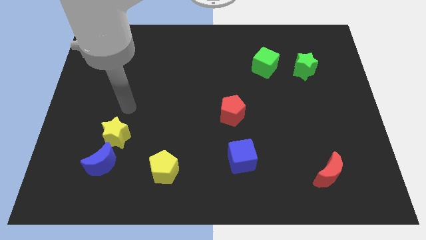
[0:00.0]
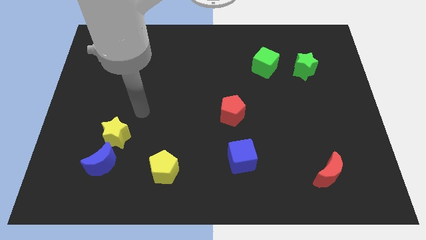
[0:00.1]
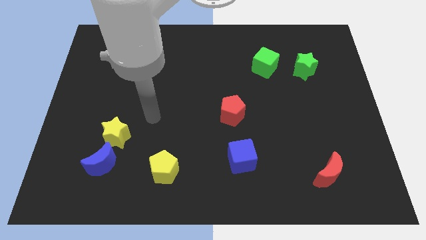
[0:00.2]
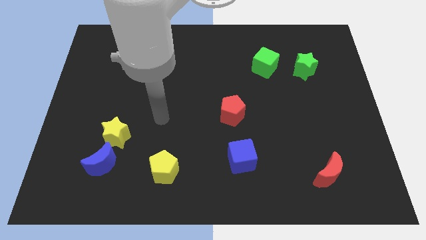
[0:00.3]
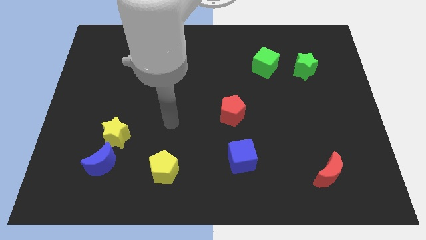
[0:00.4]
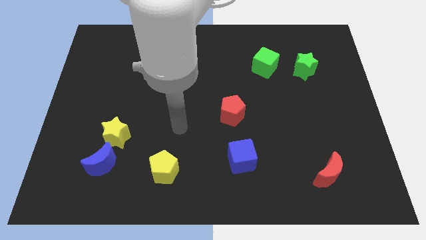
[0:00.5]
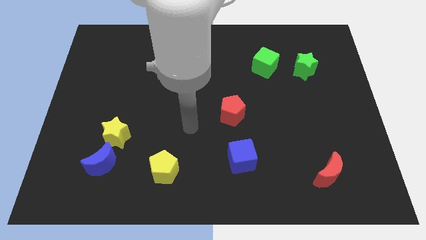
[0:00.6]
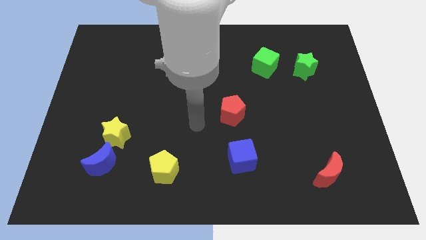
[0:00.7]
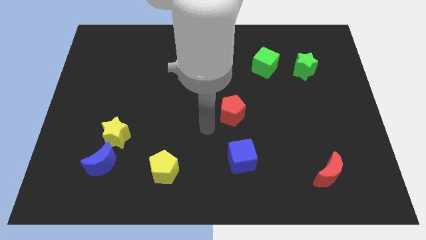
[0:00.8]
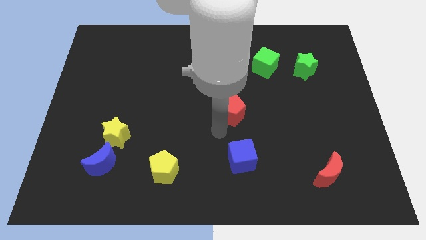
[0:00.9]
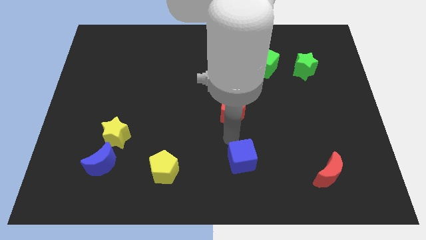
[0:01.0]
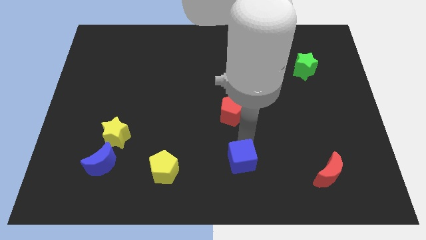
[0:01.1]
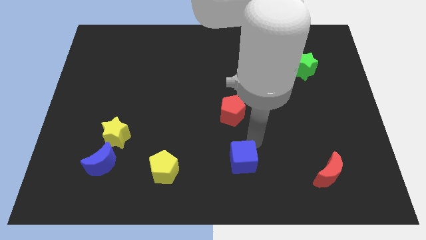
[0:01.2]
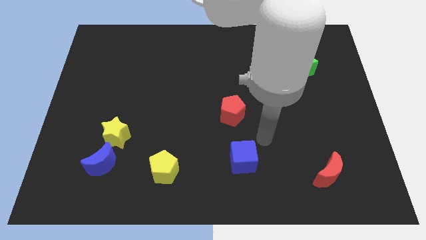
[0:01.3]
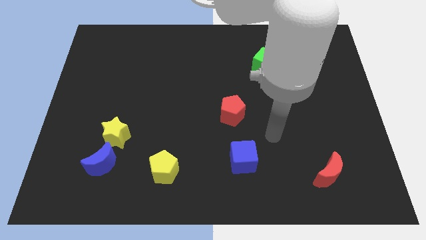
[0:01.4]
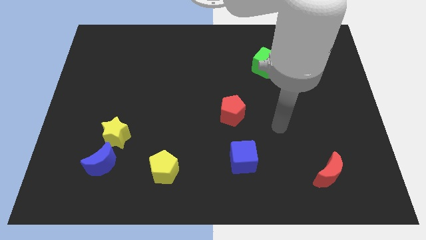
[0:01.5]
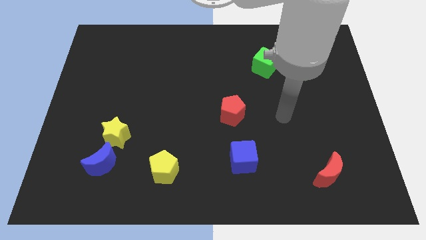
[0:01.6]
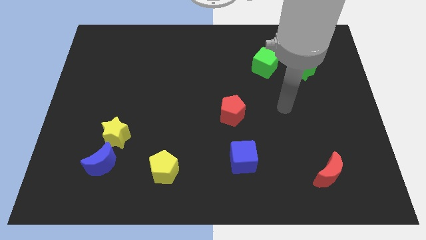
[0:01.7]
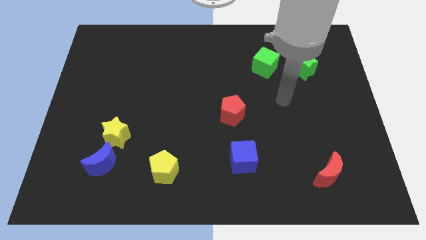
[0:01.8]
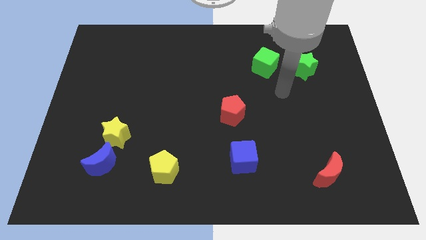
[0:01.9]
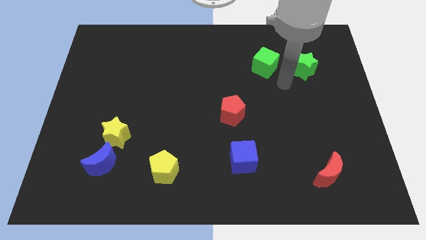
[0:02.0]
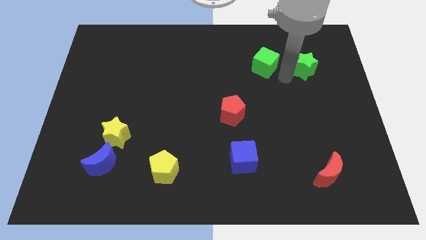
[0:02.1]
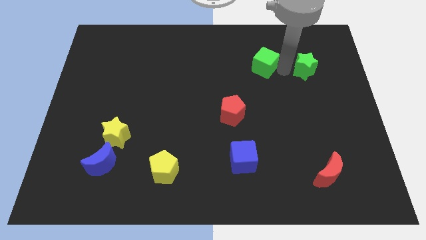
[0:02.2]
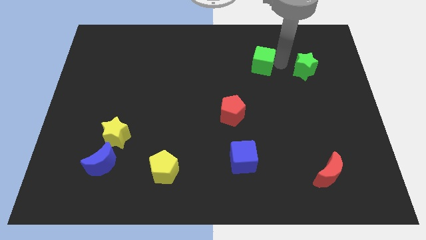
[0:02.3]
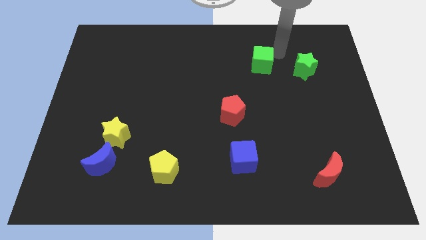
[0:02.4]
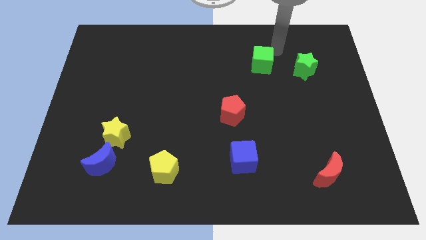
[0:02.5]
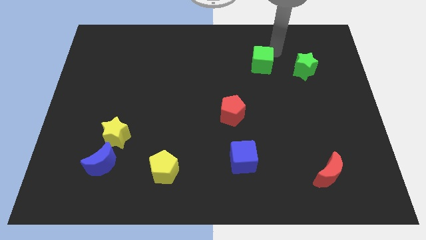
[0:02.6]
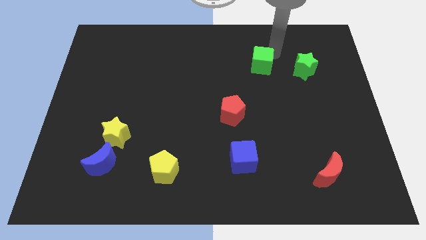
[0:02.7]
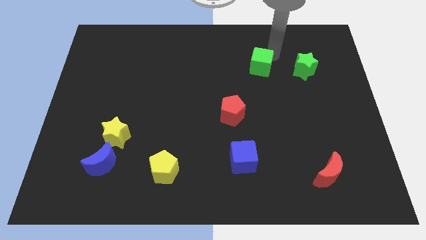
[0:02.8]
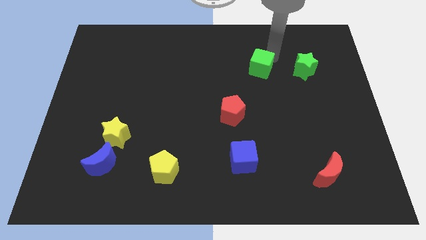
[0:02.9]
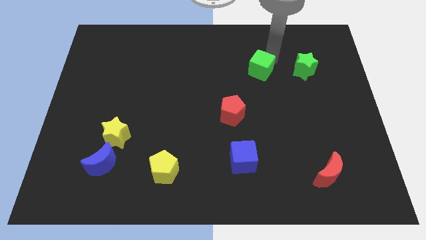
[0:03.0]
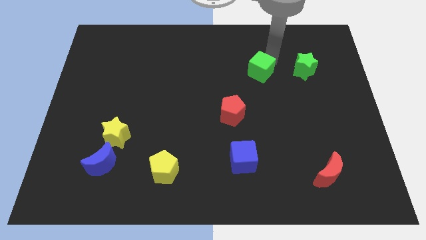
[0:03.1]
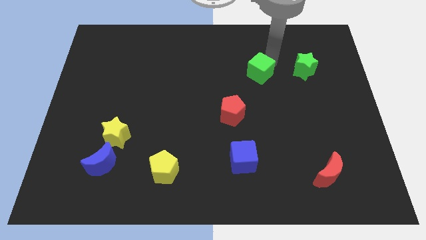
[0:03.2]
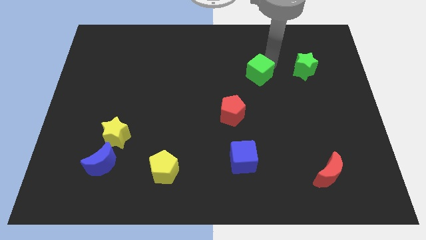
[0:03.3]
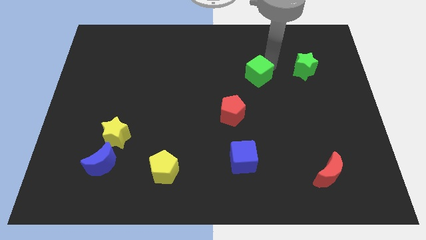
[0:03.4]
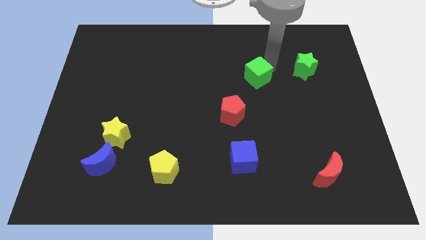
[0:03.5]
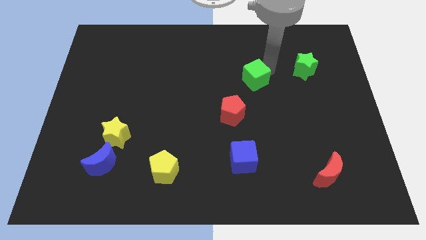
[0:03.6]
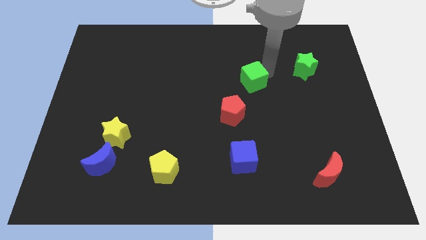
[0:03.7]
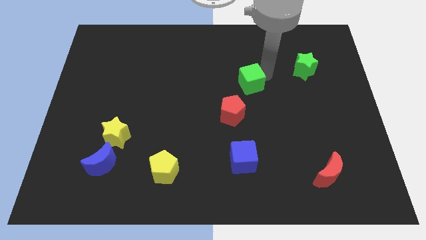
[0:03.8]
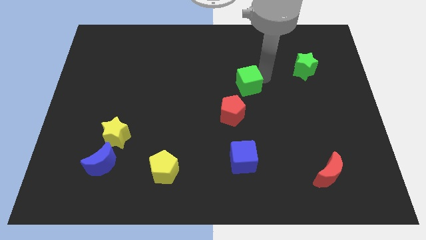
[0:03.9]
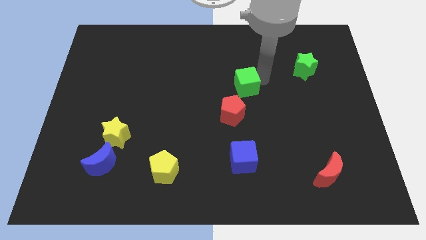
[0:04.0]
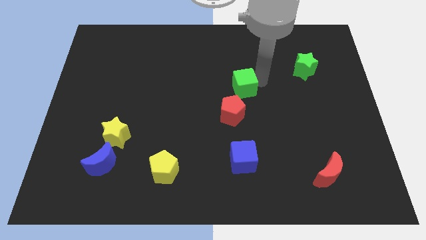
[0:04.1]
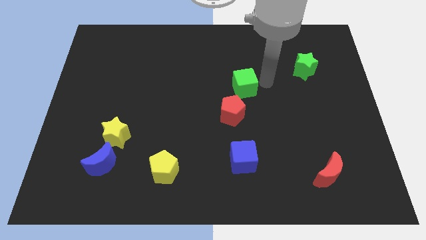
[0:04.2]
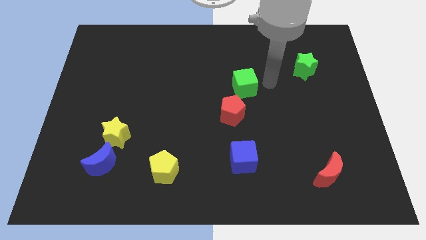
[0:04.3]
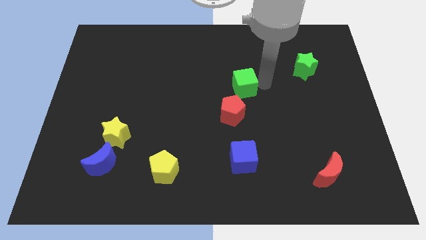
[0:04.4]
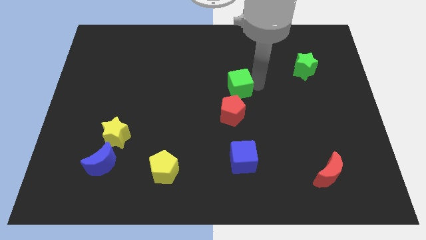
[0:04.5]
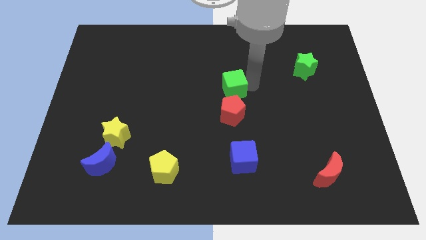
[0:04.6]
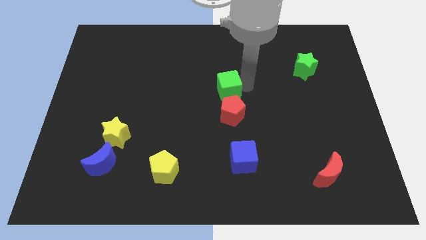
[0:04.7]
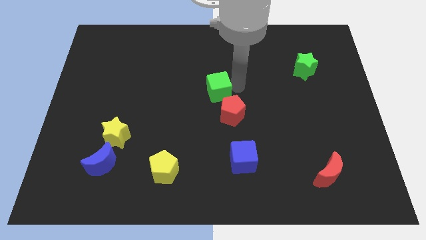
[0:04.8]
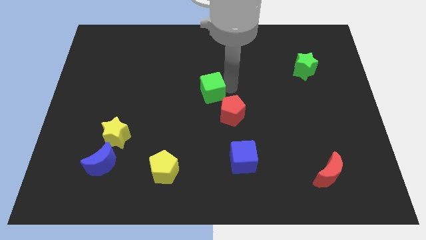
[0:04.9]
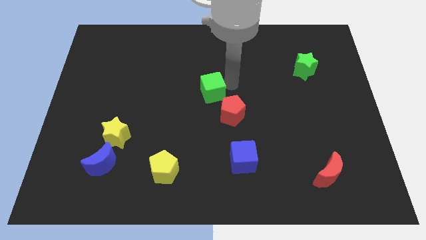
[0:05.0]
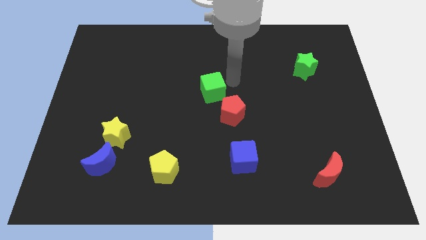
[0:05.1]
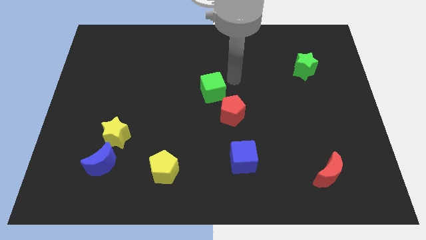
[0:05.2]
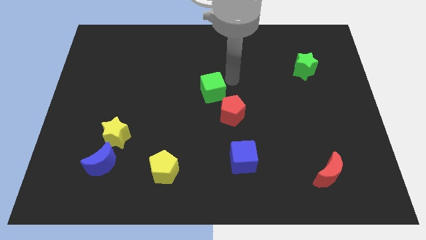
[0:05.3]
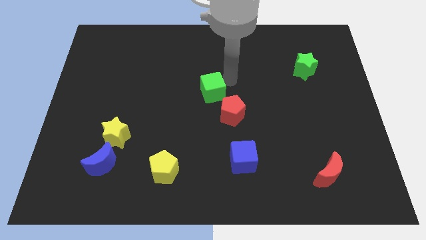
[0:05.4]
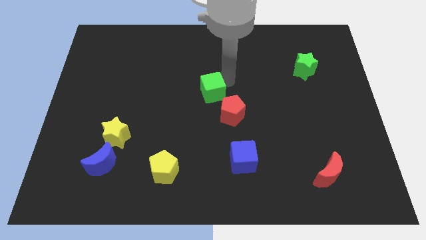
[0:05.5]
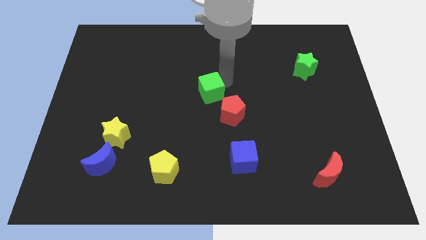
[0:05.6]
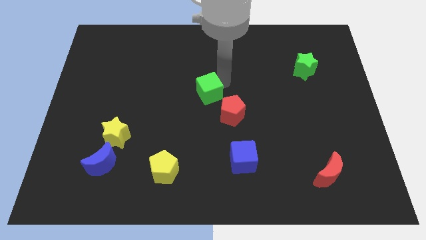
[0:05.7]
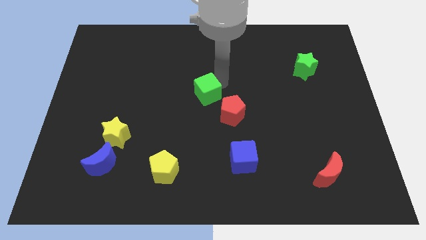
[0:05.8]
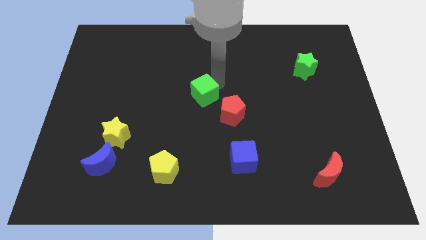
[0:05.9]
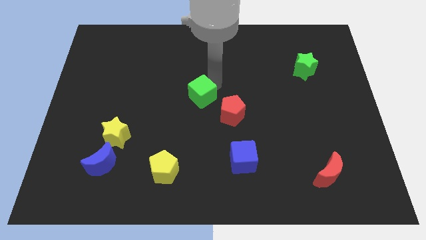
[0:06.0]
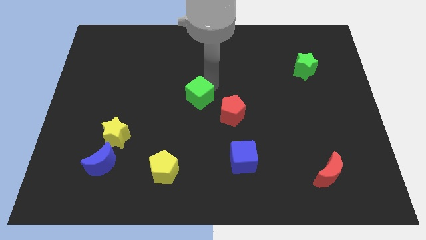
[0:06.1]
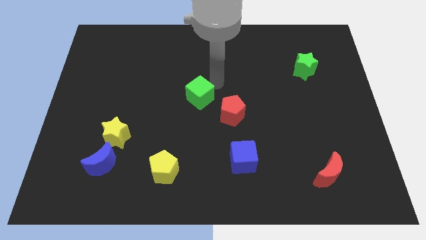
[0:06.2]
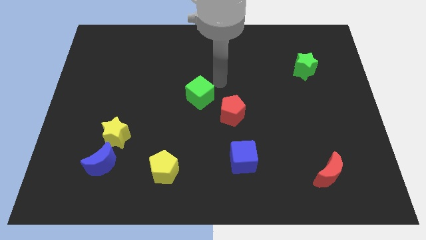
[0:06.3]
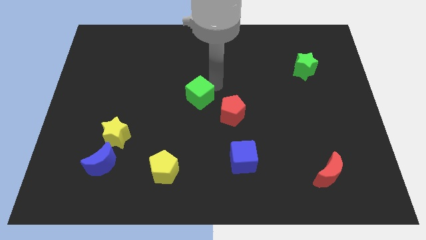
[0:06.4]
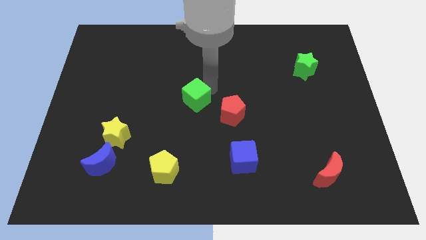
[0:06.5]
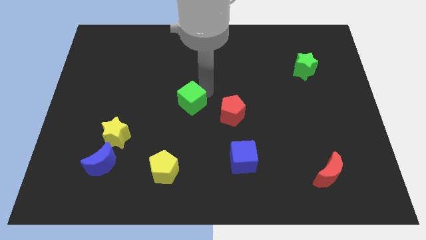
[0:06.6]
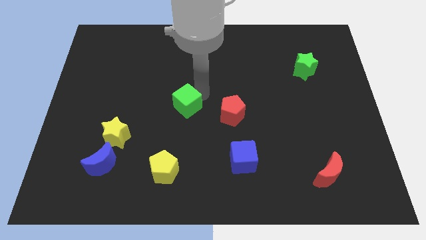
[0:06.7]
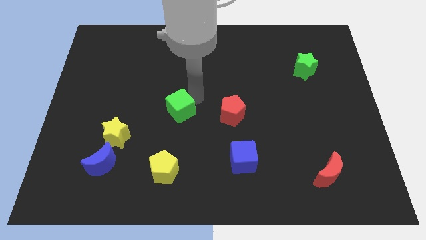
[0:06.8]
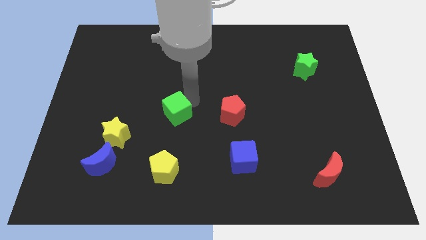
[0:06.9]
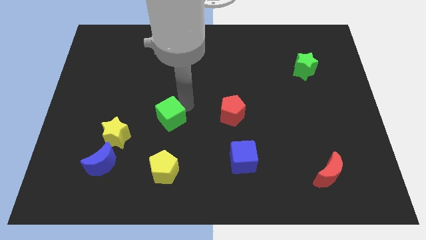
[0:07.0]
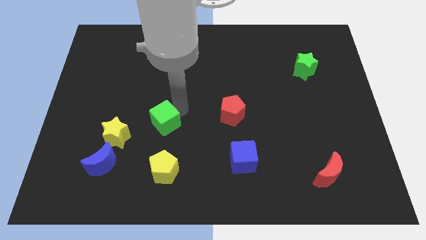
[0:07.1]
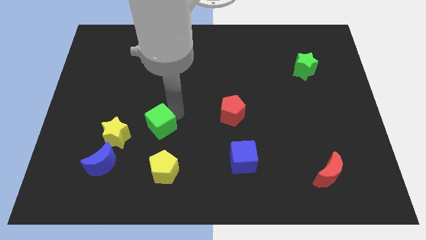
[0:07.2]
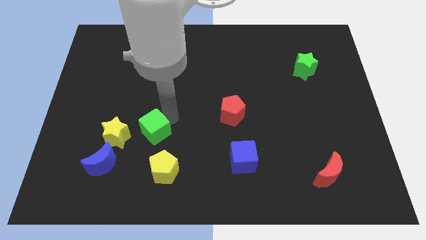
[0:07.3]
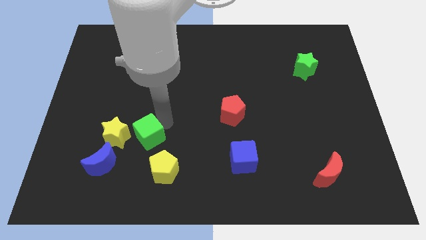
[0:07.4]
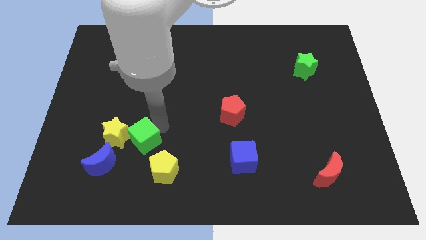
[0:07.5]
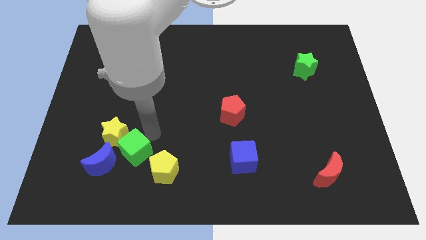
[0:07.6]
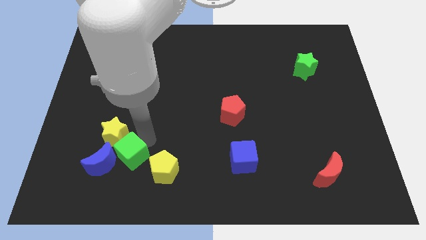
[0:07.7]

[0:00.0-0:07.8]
push the green cube next to the blue moon
